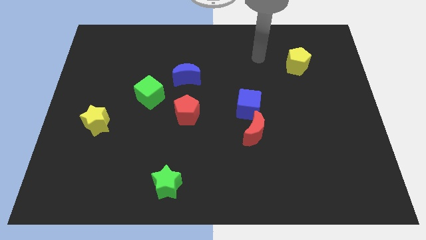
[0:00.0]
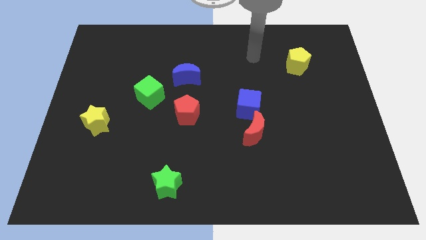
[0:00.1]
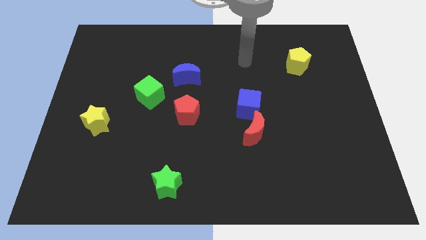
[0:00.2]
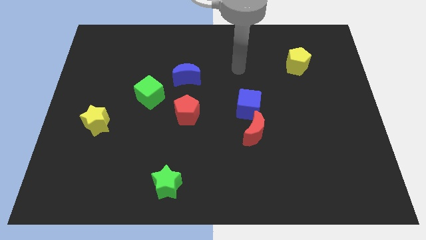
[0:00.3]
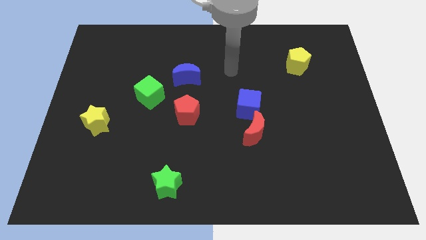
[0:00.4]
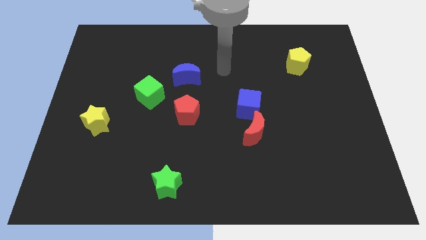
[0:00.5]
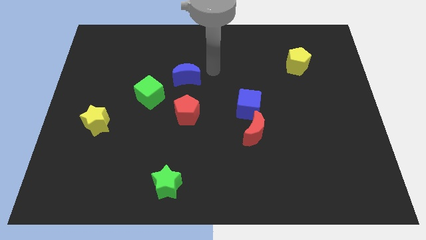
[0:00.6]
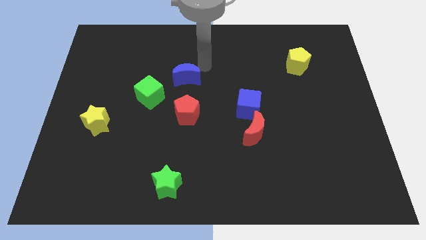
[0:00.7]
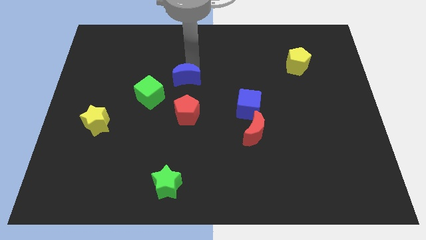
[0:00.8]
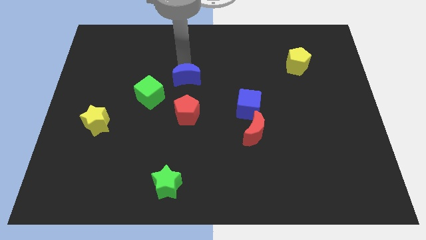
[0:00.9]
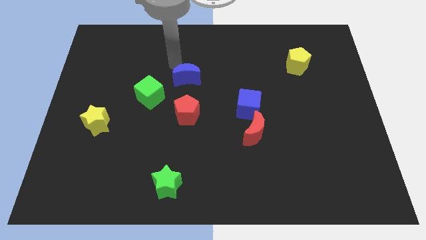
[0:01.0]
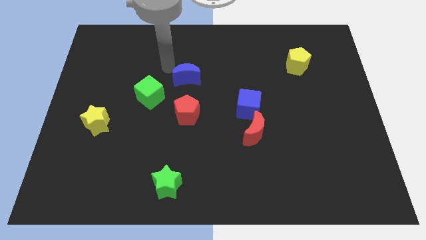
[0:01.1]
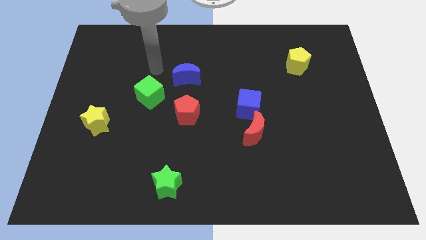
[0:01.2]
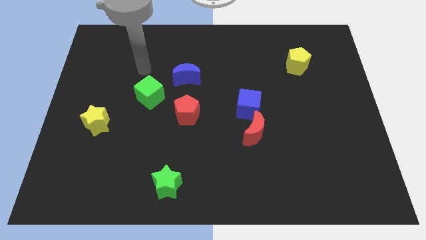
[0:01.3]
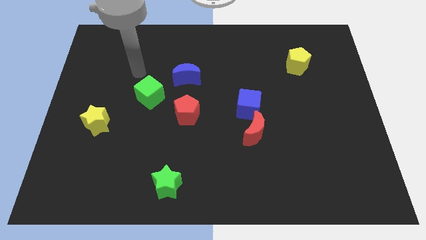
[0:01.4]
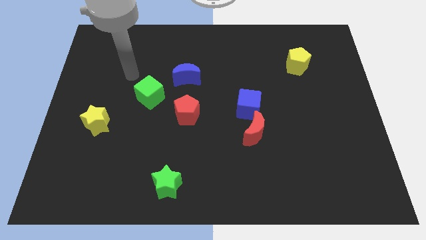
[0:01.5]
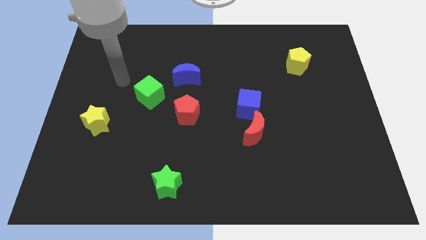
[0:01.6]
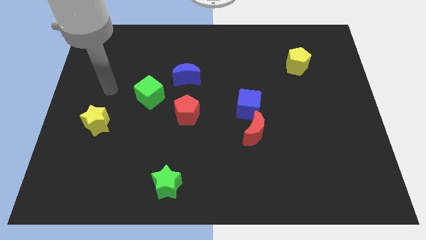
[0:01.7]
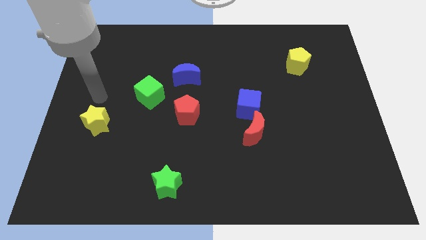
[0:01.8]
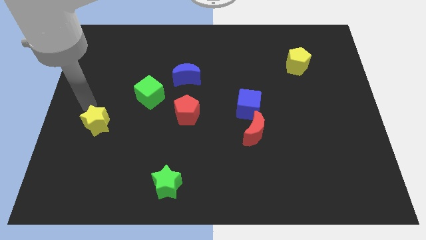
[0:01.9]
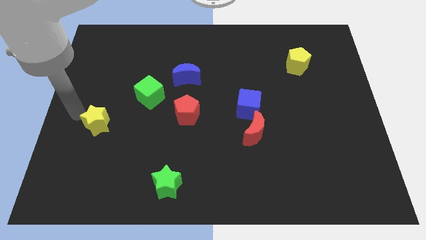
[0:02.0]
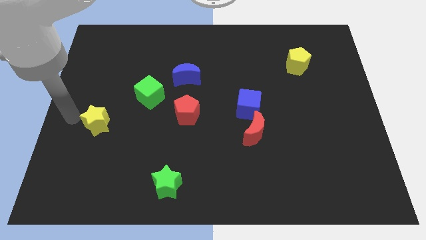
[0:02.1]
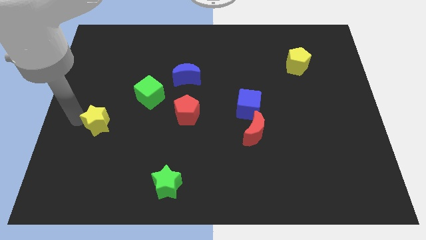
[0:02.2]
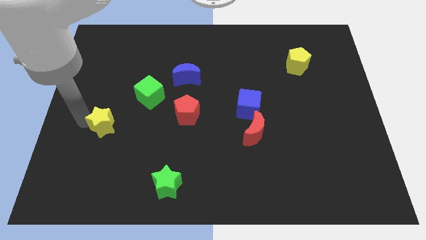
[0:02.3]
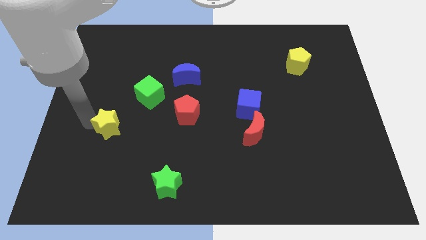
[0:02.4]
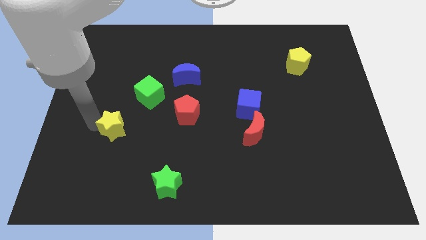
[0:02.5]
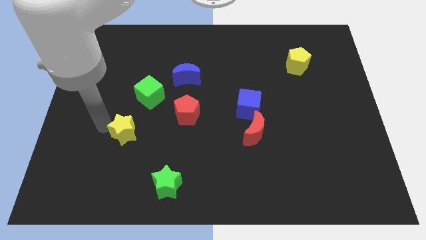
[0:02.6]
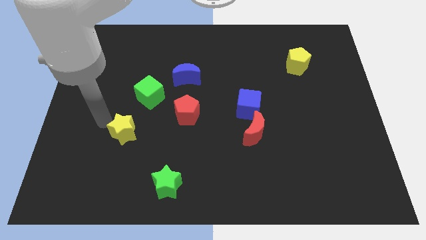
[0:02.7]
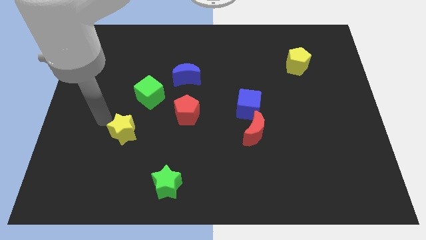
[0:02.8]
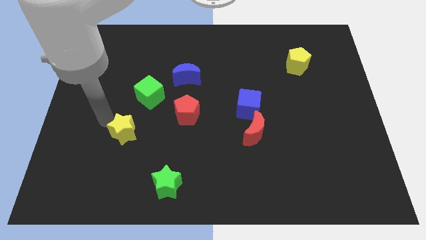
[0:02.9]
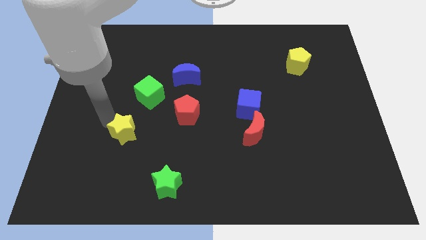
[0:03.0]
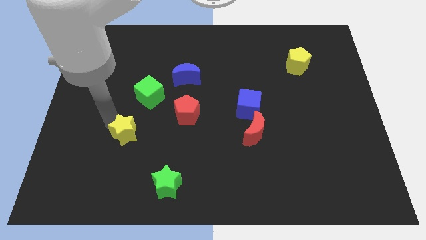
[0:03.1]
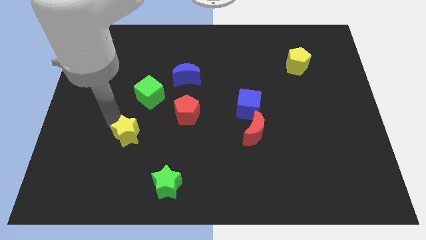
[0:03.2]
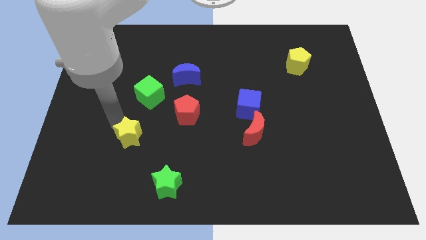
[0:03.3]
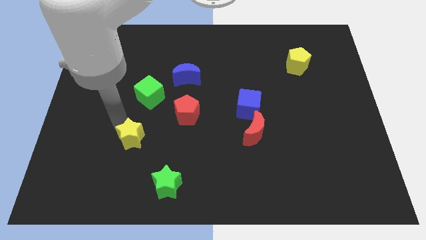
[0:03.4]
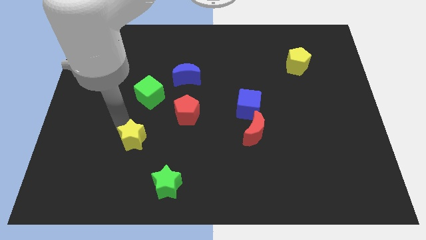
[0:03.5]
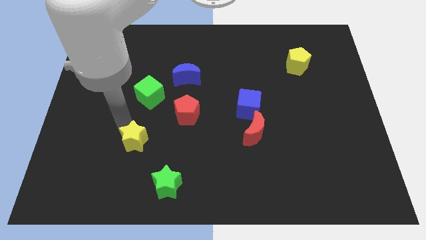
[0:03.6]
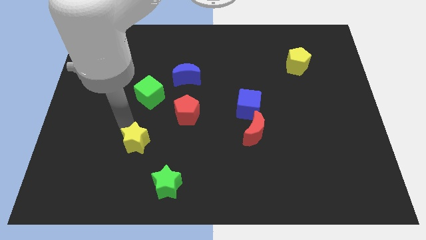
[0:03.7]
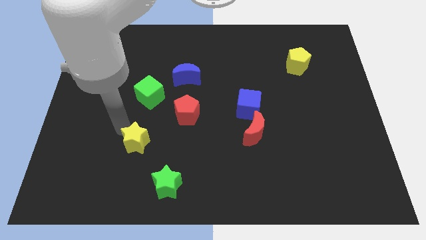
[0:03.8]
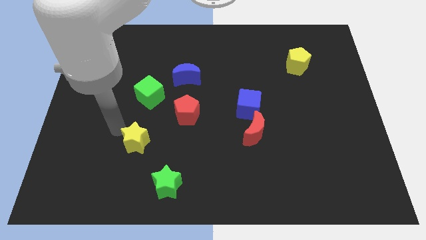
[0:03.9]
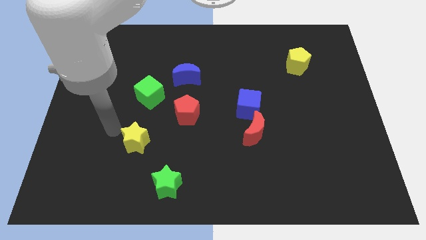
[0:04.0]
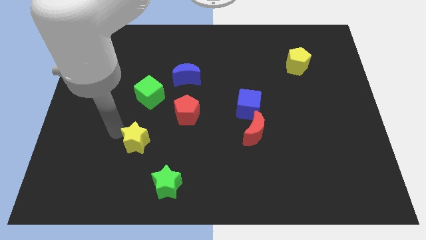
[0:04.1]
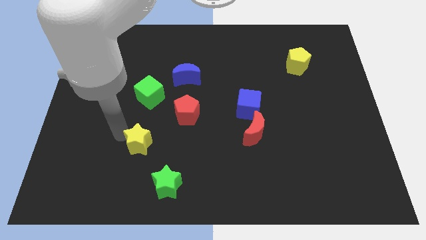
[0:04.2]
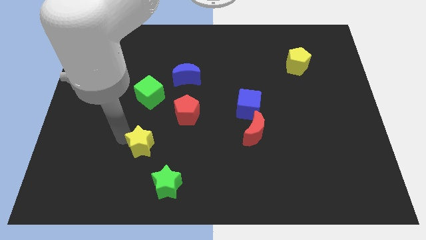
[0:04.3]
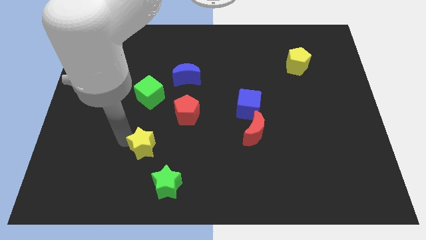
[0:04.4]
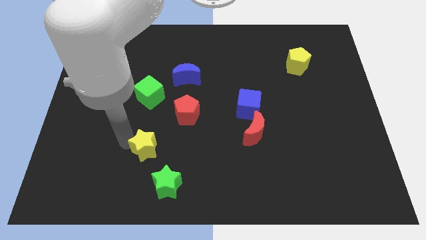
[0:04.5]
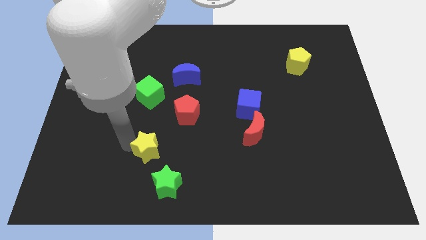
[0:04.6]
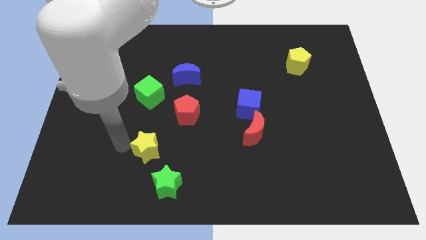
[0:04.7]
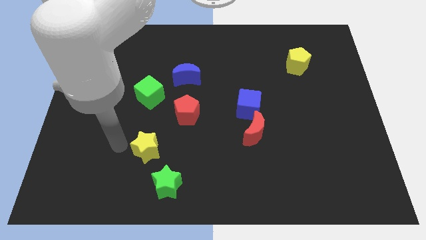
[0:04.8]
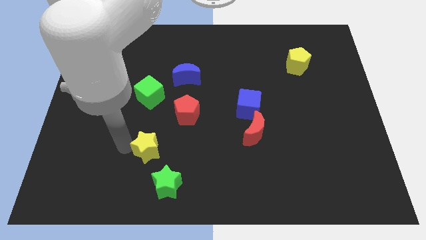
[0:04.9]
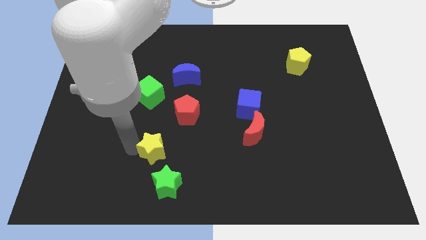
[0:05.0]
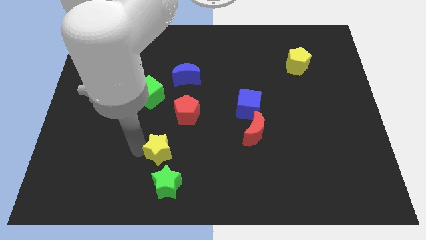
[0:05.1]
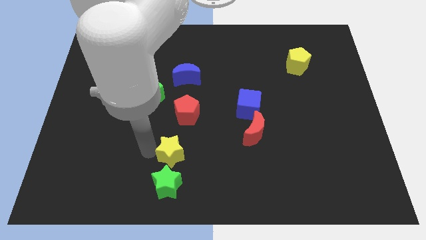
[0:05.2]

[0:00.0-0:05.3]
put the yellow star to the top right of the green star

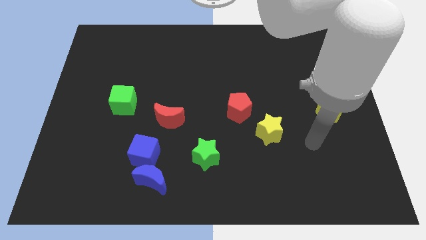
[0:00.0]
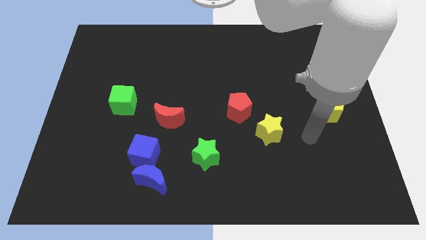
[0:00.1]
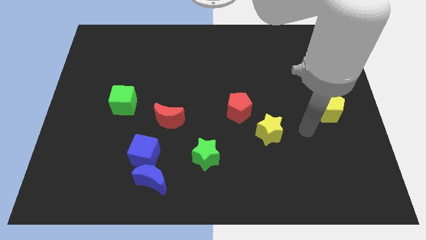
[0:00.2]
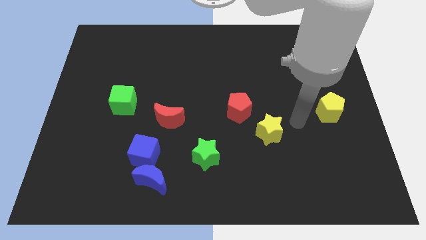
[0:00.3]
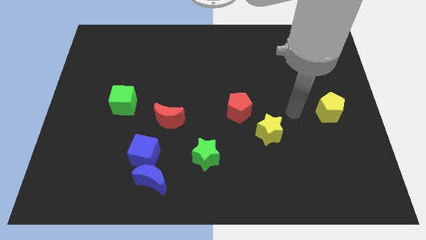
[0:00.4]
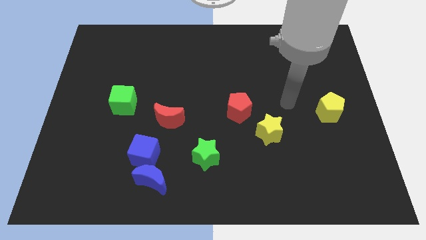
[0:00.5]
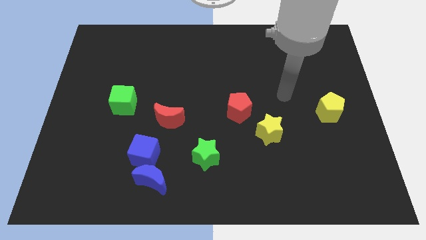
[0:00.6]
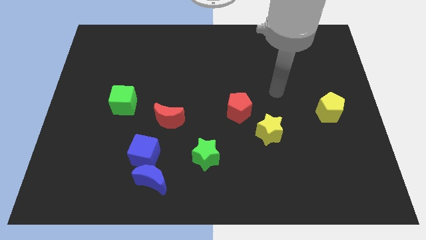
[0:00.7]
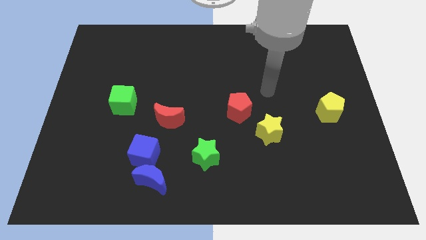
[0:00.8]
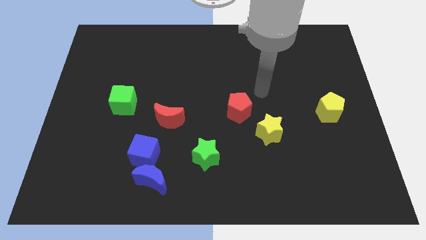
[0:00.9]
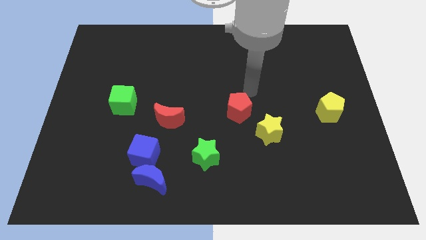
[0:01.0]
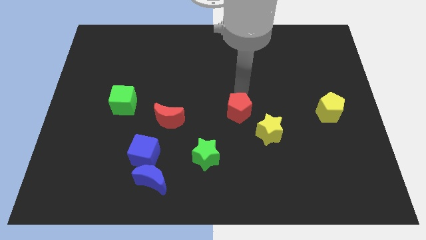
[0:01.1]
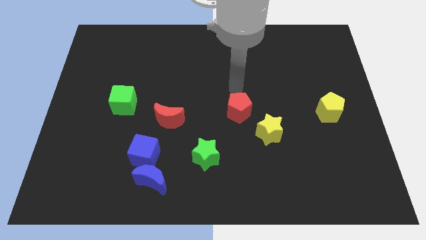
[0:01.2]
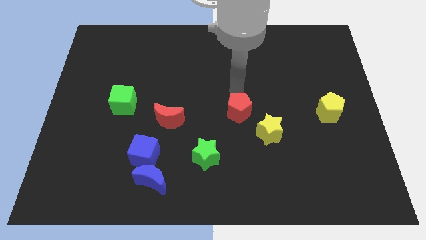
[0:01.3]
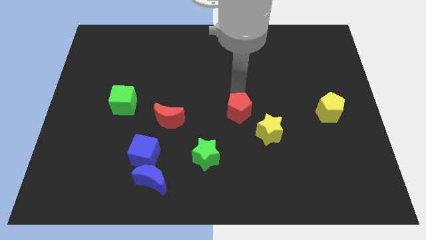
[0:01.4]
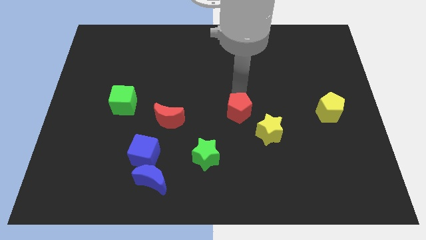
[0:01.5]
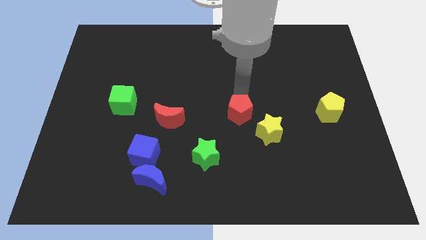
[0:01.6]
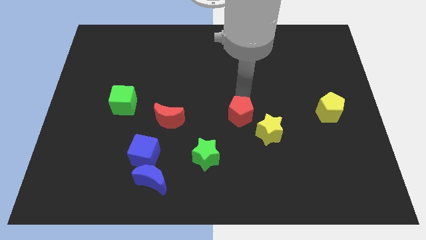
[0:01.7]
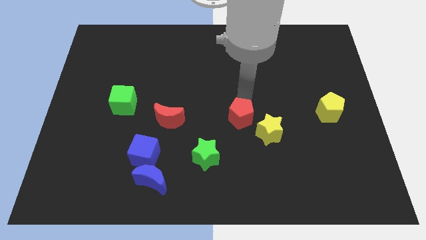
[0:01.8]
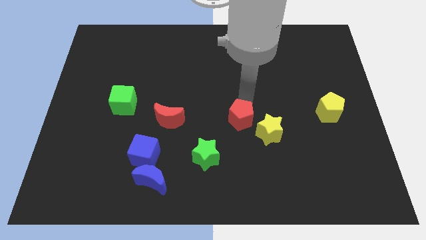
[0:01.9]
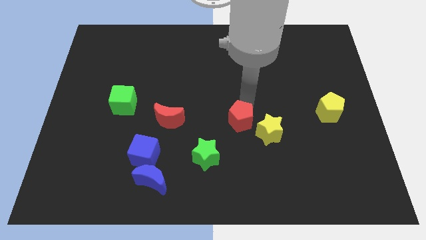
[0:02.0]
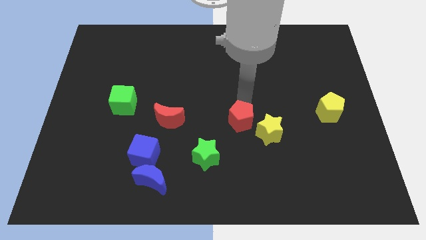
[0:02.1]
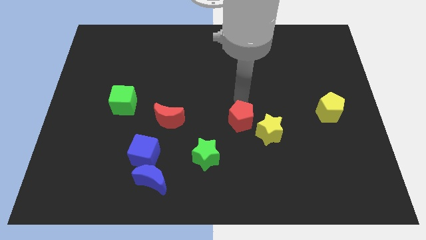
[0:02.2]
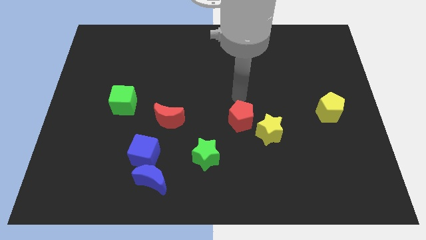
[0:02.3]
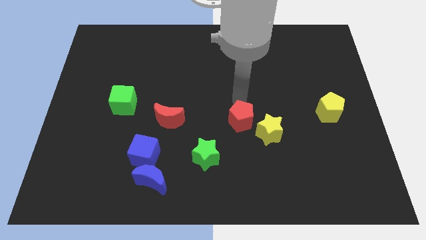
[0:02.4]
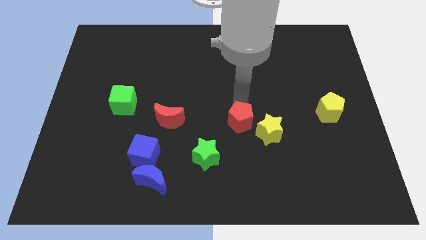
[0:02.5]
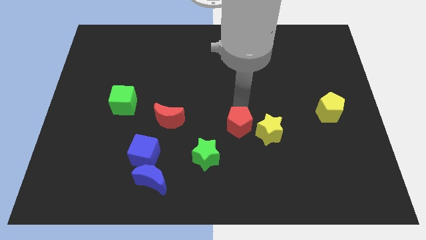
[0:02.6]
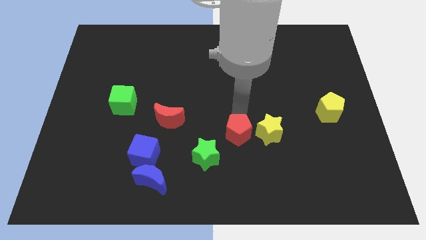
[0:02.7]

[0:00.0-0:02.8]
push the red pentagon to the bottom left side of the yellow star
